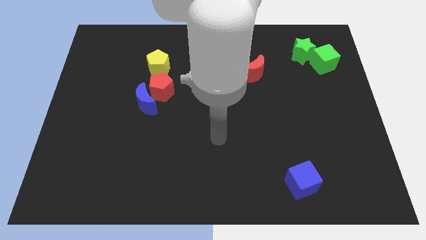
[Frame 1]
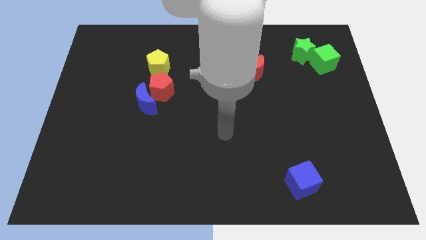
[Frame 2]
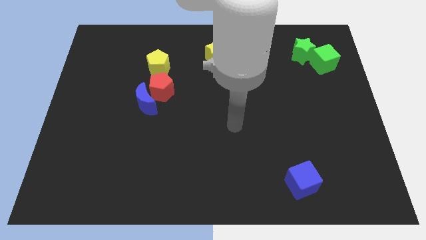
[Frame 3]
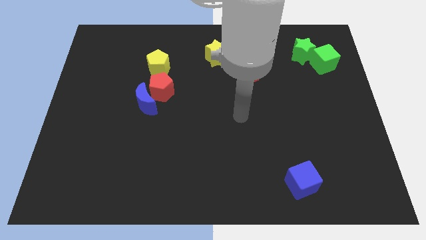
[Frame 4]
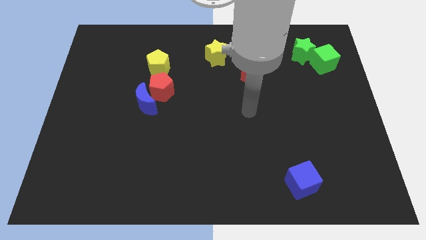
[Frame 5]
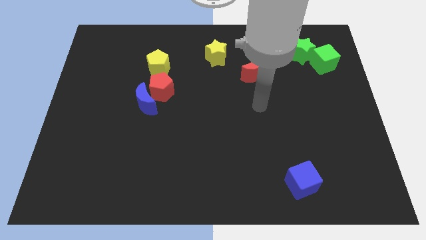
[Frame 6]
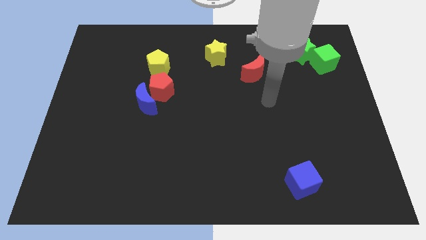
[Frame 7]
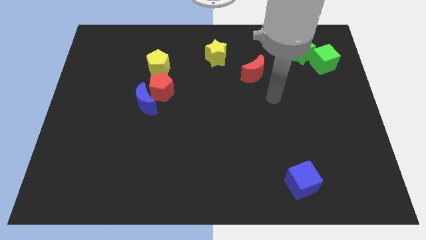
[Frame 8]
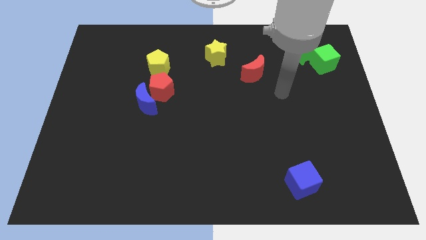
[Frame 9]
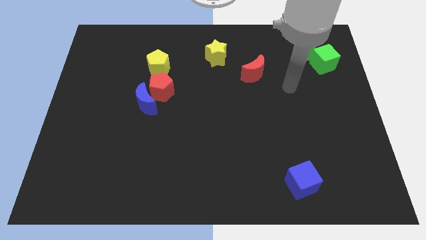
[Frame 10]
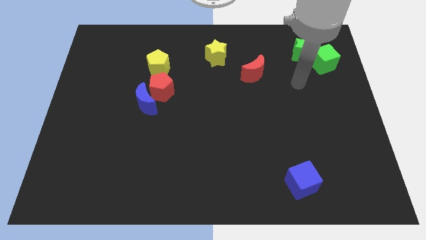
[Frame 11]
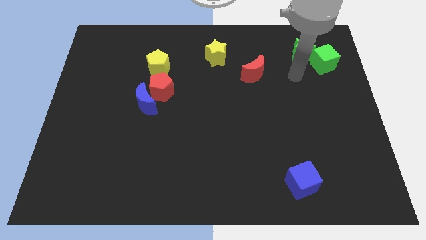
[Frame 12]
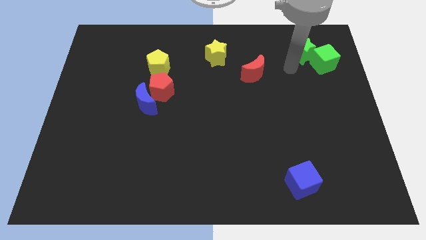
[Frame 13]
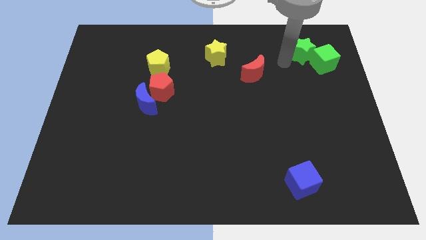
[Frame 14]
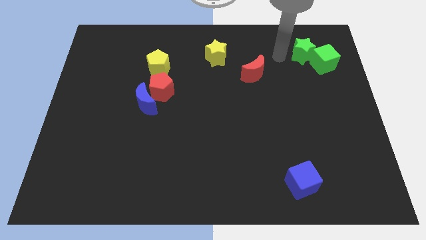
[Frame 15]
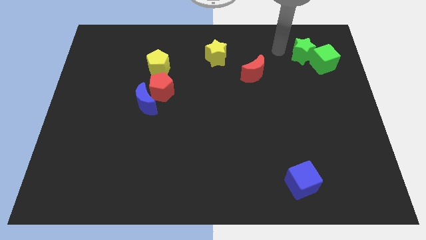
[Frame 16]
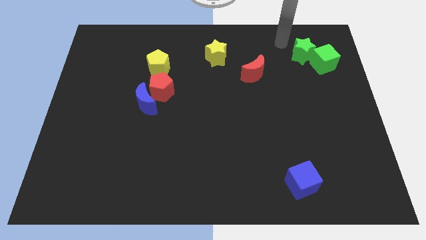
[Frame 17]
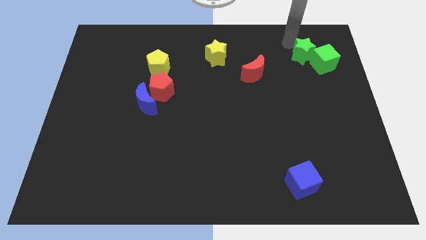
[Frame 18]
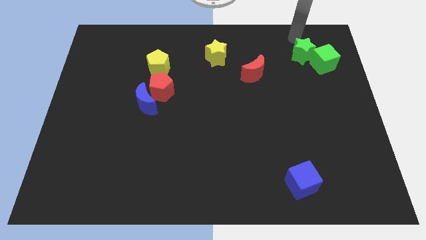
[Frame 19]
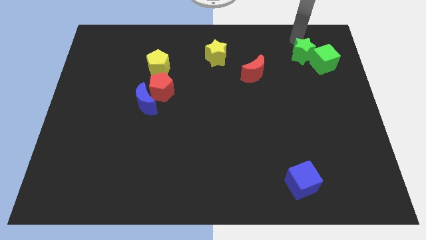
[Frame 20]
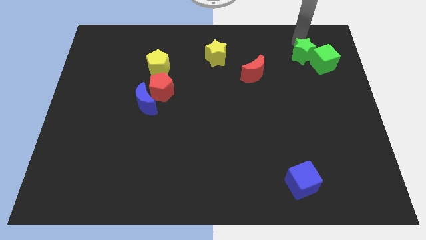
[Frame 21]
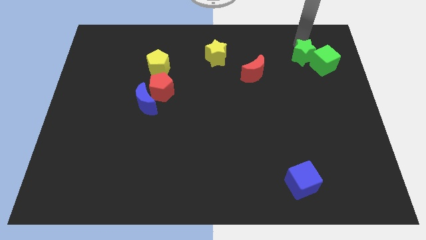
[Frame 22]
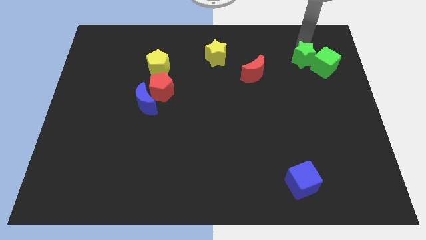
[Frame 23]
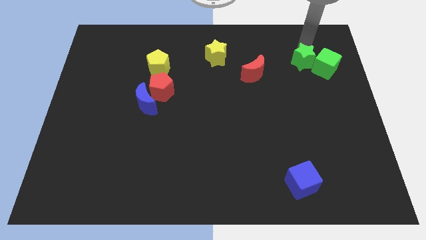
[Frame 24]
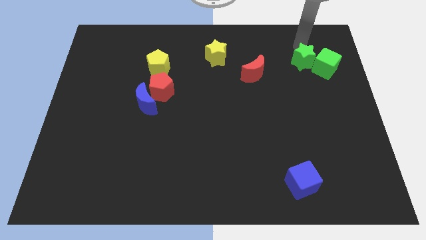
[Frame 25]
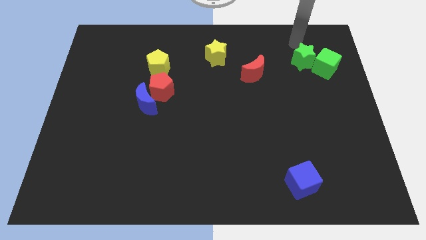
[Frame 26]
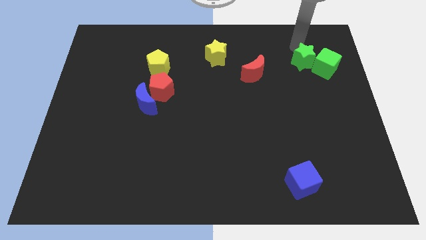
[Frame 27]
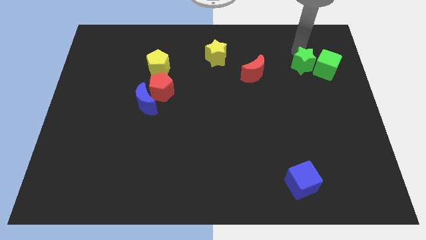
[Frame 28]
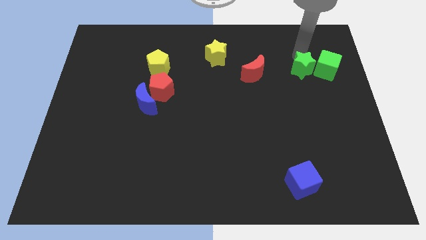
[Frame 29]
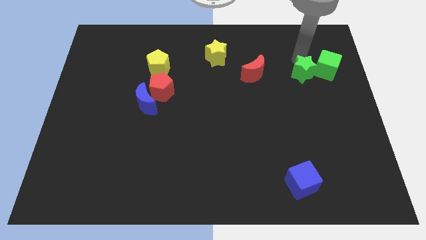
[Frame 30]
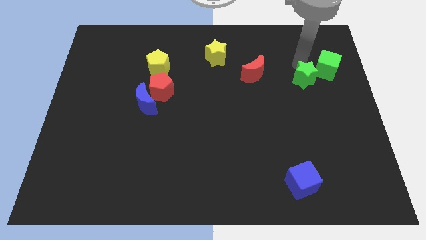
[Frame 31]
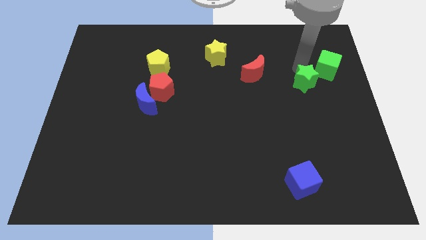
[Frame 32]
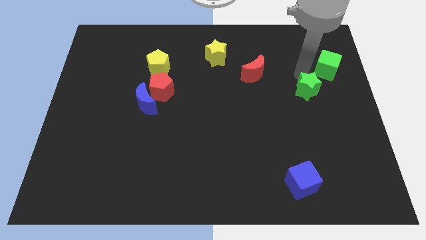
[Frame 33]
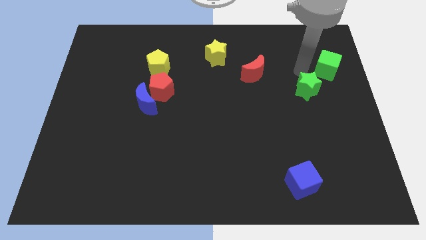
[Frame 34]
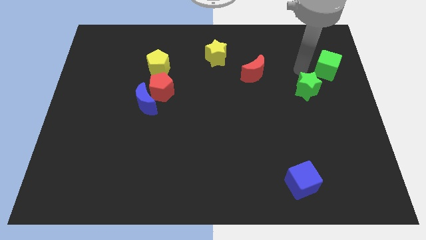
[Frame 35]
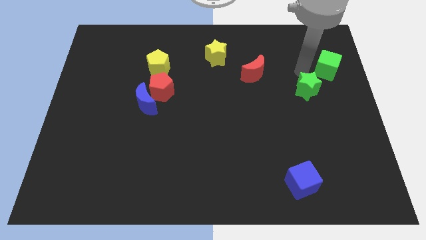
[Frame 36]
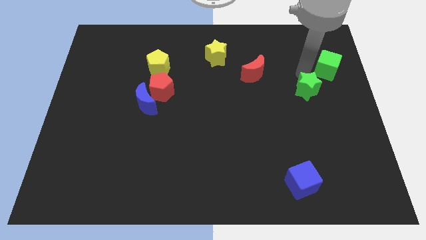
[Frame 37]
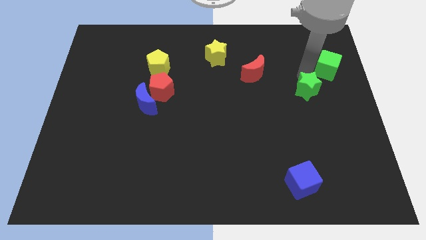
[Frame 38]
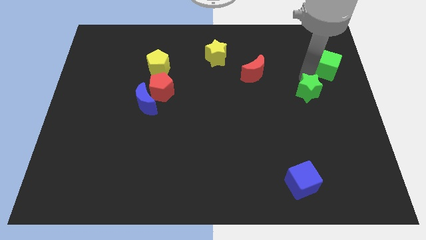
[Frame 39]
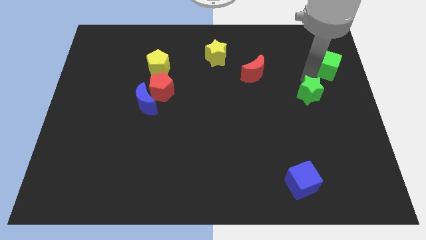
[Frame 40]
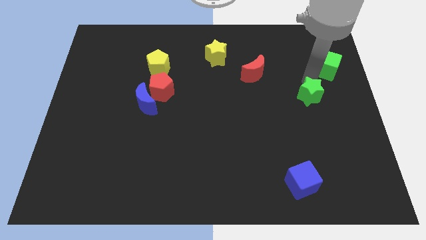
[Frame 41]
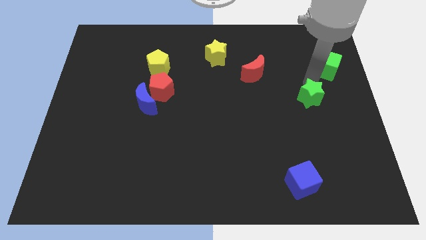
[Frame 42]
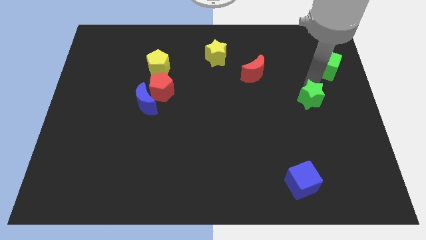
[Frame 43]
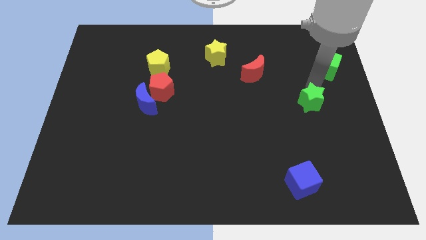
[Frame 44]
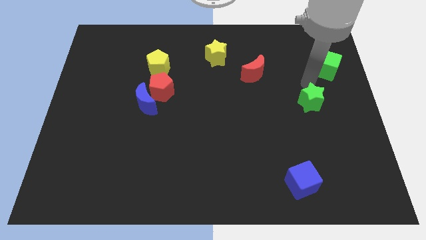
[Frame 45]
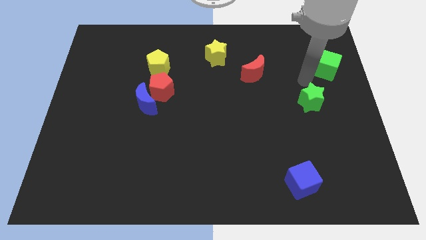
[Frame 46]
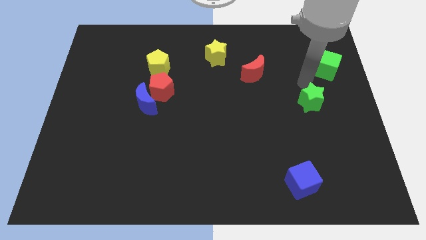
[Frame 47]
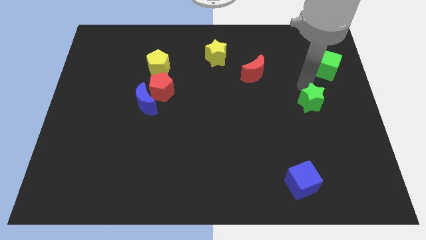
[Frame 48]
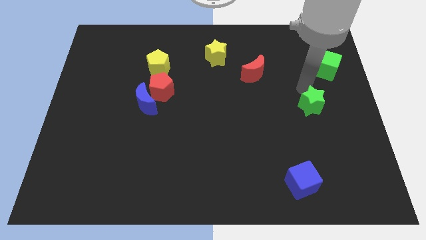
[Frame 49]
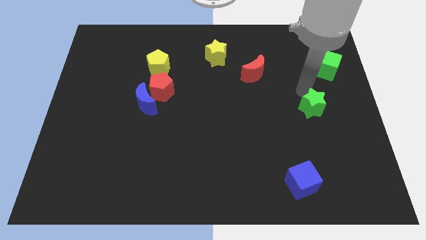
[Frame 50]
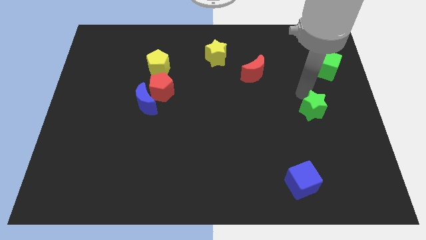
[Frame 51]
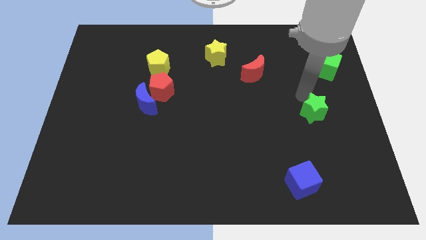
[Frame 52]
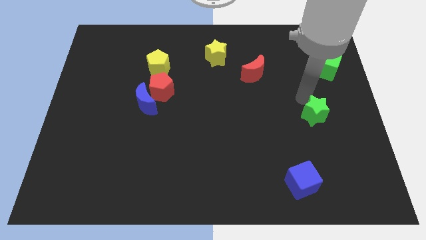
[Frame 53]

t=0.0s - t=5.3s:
move the green star downwards

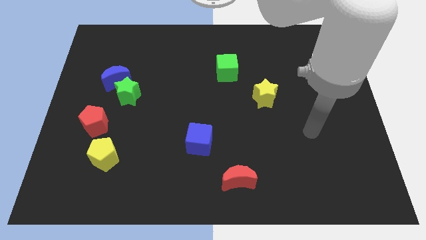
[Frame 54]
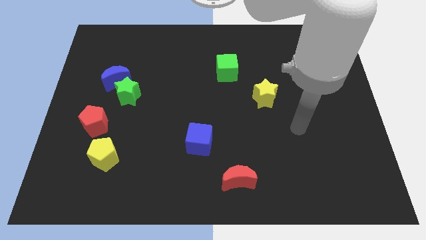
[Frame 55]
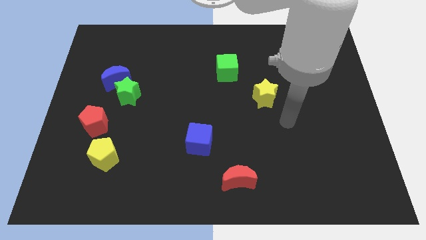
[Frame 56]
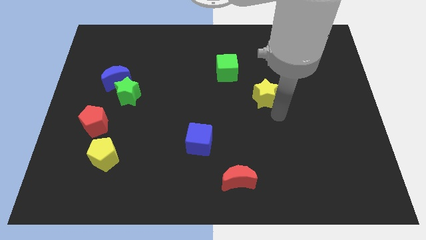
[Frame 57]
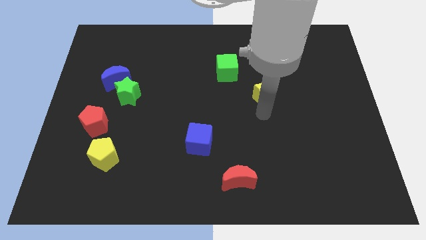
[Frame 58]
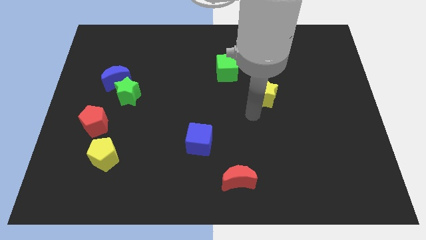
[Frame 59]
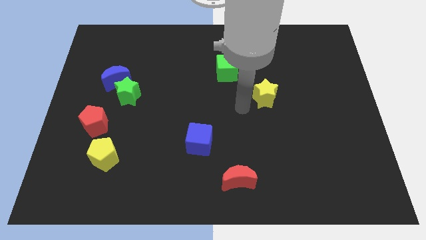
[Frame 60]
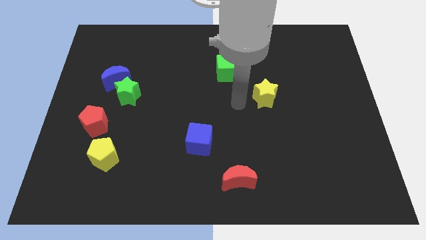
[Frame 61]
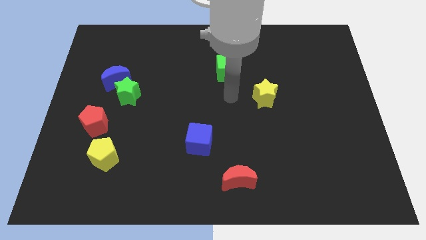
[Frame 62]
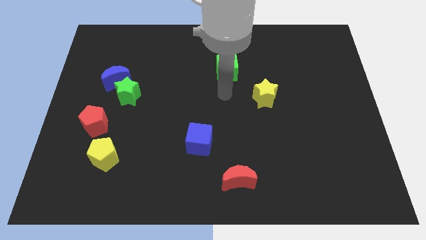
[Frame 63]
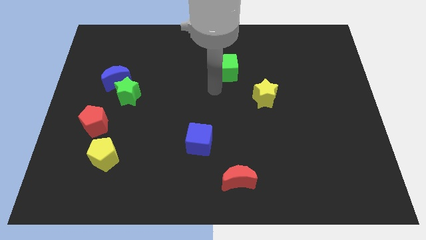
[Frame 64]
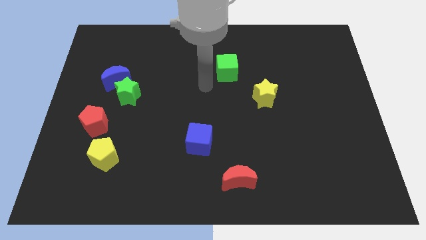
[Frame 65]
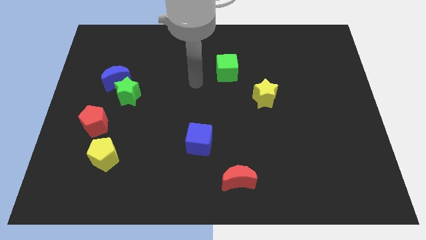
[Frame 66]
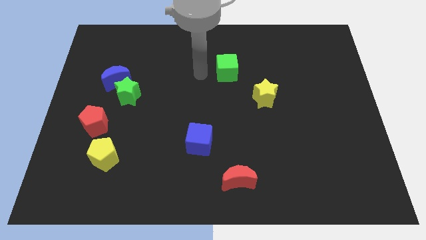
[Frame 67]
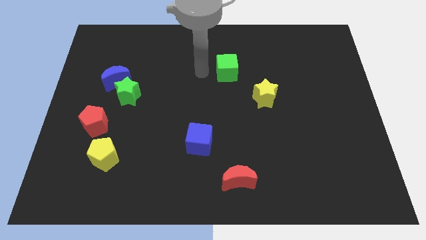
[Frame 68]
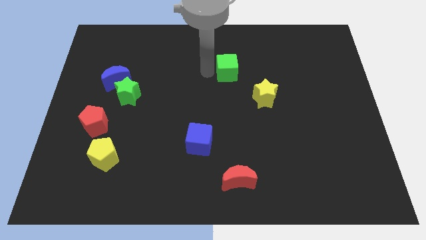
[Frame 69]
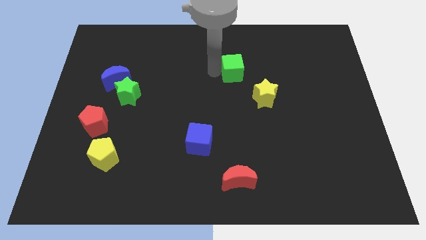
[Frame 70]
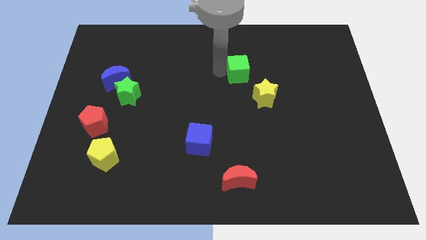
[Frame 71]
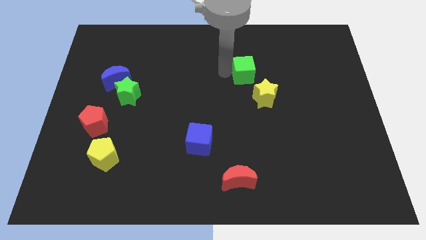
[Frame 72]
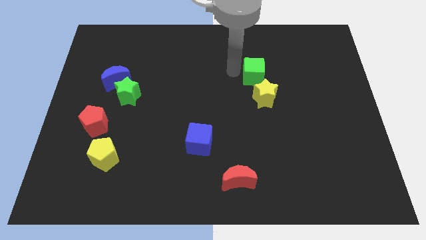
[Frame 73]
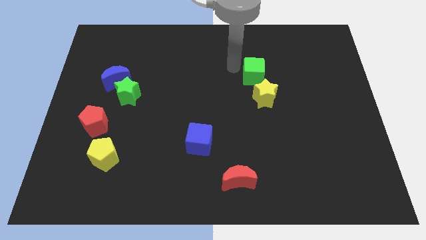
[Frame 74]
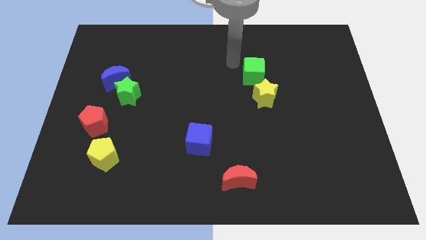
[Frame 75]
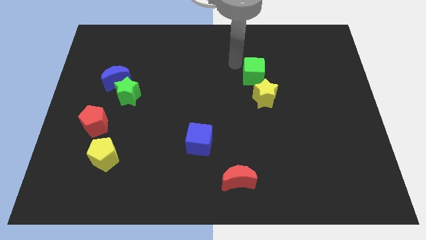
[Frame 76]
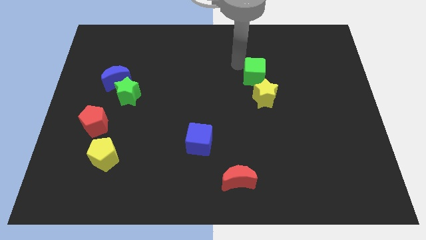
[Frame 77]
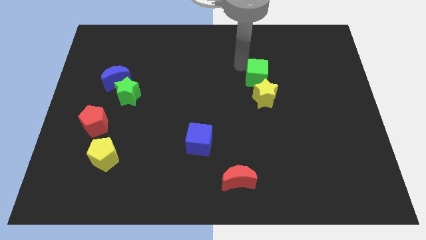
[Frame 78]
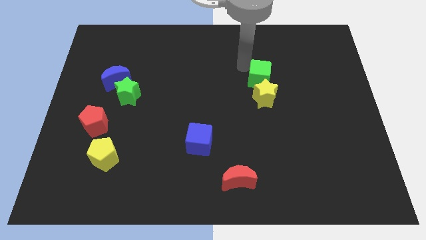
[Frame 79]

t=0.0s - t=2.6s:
slide the green cube downwards and then right somewhat
